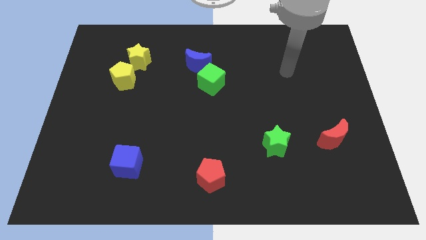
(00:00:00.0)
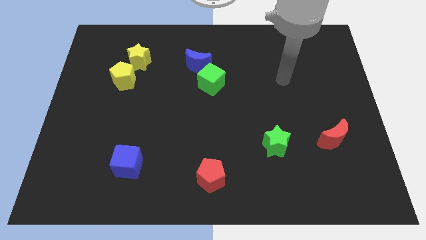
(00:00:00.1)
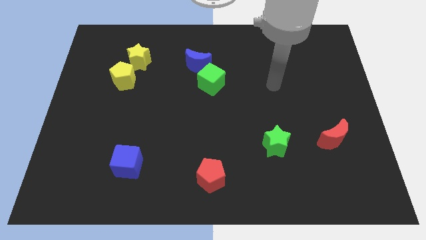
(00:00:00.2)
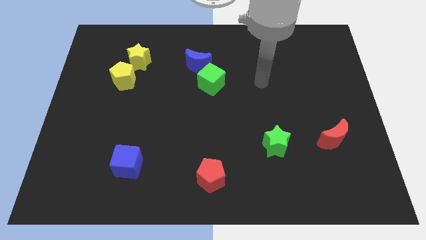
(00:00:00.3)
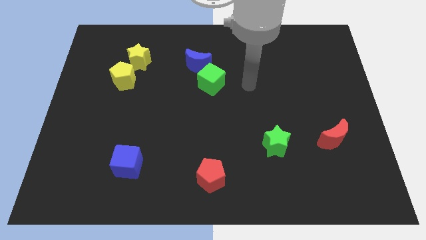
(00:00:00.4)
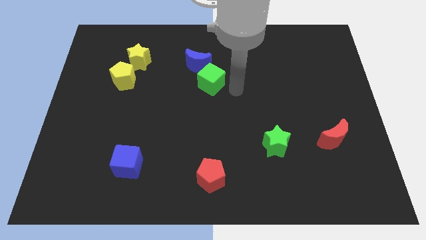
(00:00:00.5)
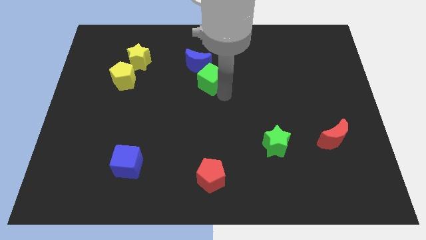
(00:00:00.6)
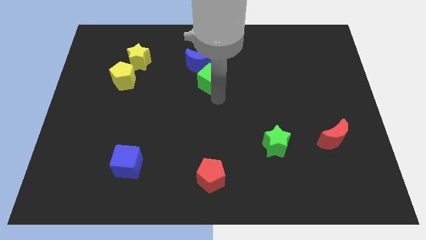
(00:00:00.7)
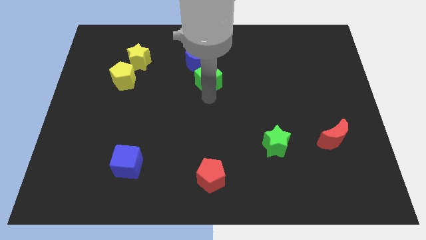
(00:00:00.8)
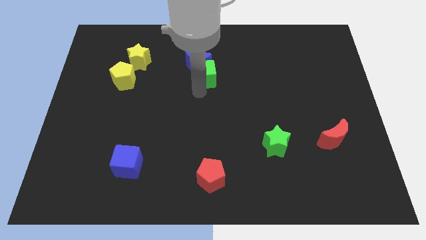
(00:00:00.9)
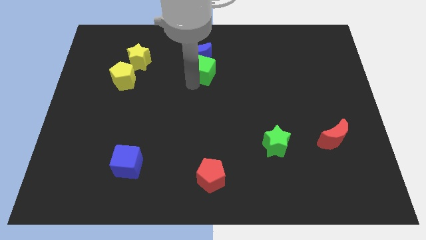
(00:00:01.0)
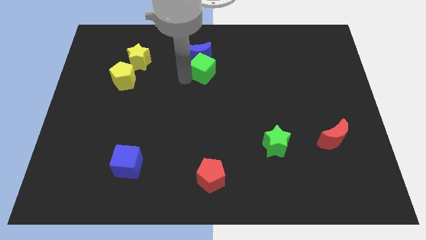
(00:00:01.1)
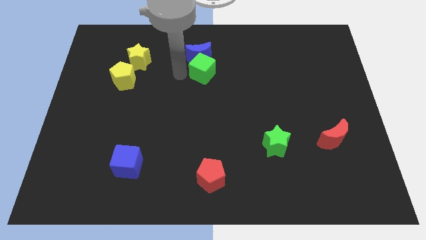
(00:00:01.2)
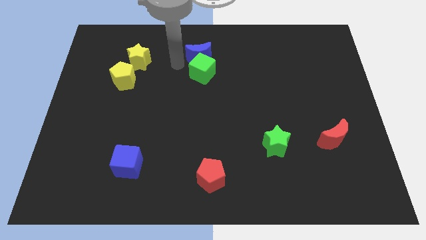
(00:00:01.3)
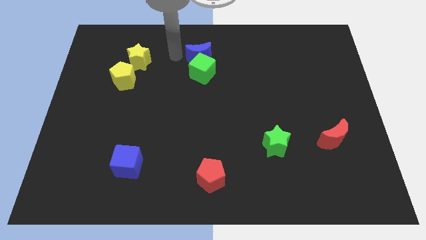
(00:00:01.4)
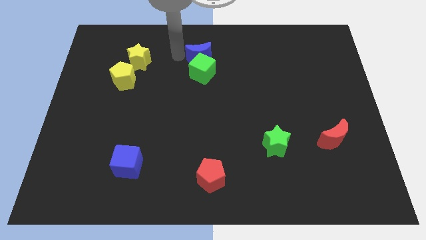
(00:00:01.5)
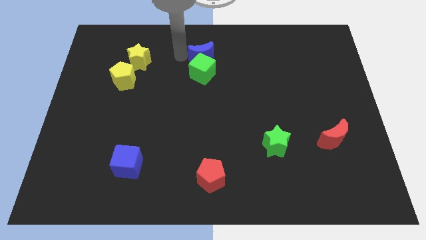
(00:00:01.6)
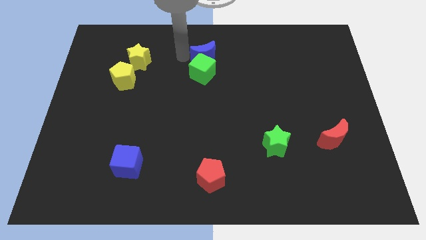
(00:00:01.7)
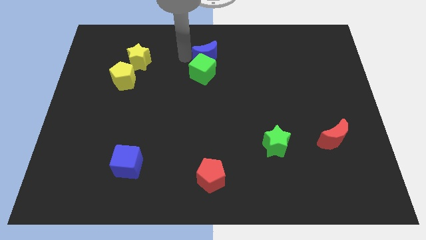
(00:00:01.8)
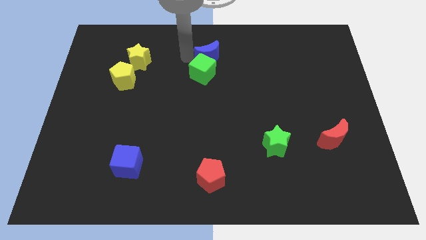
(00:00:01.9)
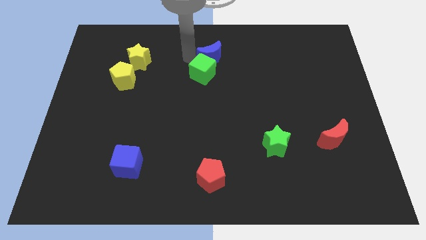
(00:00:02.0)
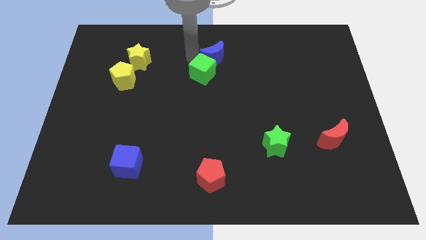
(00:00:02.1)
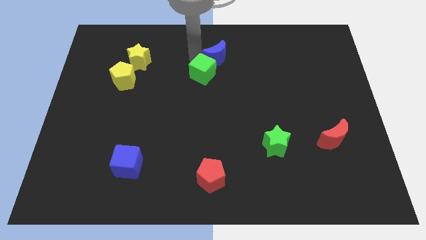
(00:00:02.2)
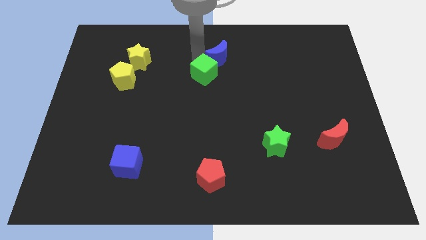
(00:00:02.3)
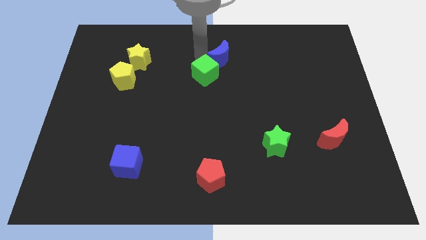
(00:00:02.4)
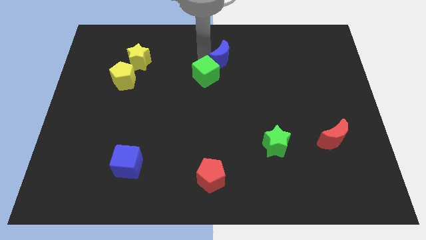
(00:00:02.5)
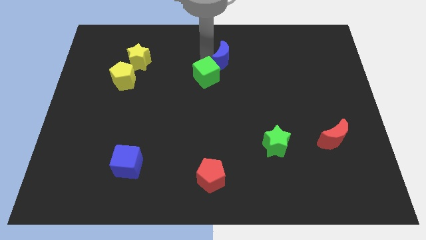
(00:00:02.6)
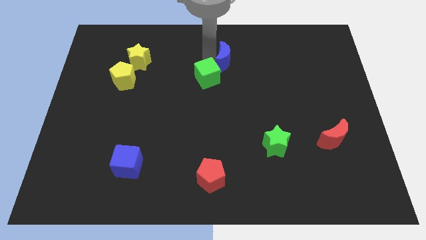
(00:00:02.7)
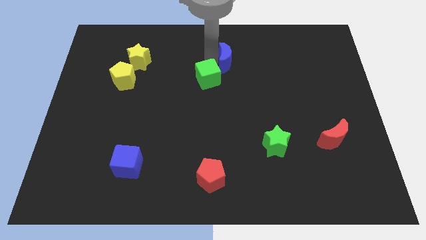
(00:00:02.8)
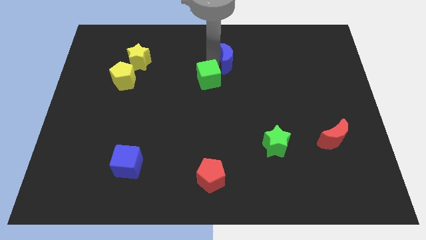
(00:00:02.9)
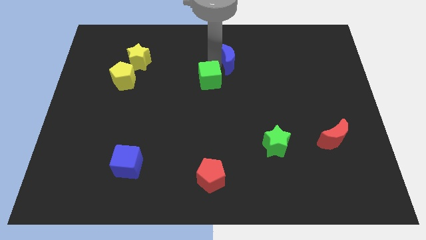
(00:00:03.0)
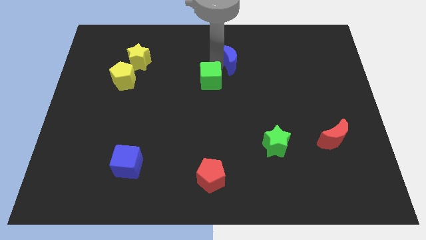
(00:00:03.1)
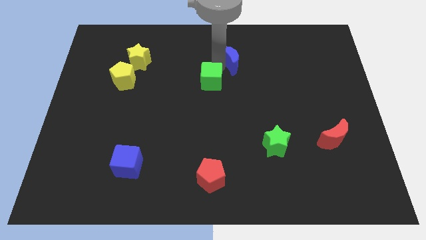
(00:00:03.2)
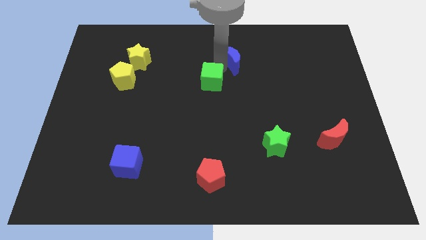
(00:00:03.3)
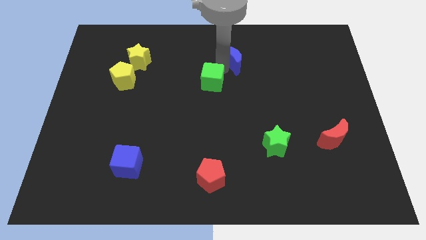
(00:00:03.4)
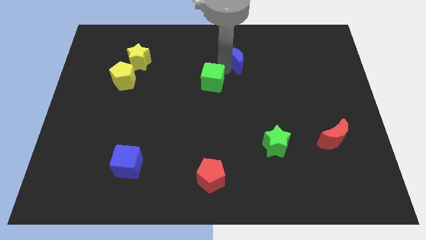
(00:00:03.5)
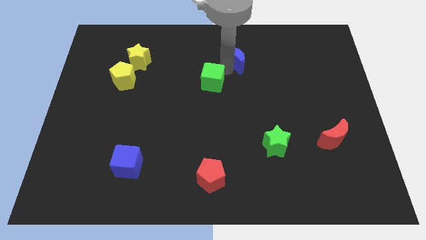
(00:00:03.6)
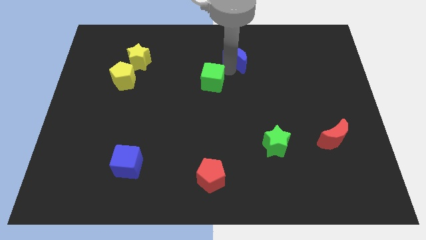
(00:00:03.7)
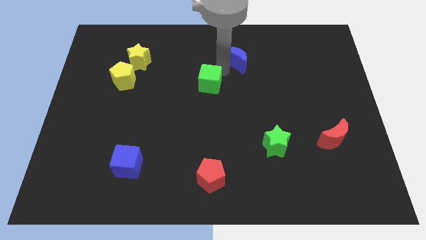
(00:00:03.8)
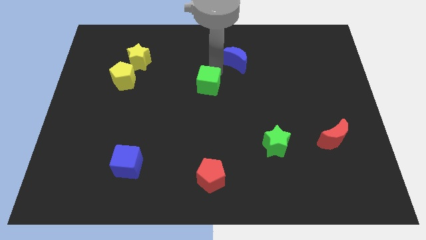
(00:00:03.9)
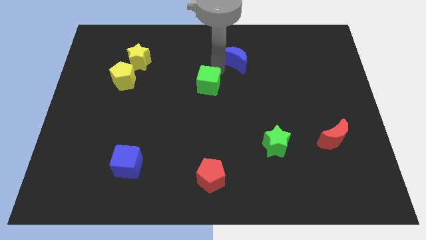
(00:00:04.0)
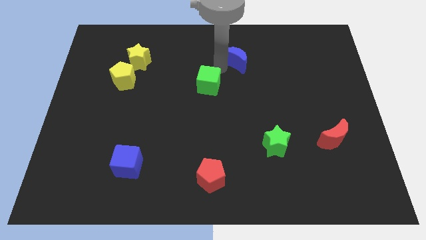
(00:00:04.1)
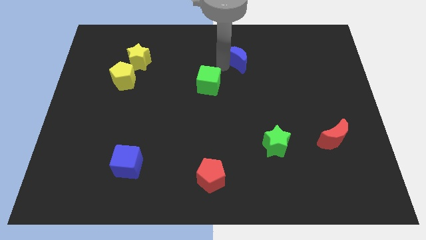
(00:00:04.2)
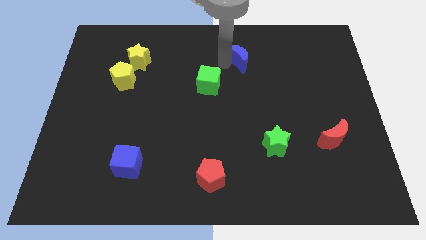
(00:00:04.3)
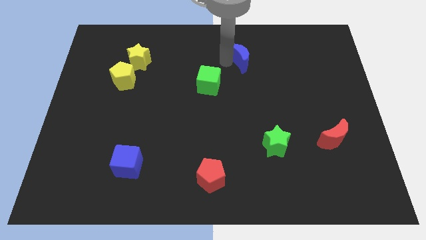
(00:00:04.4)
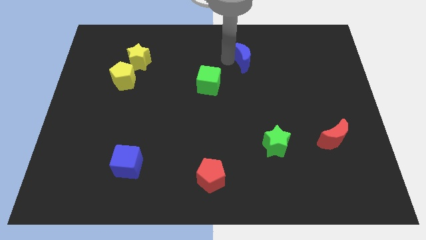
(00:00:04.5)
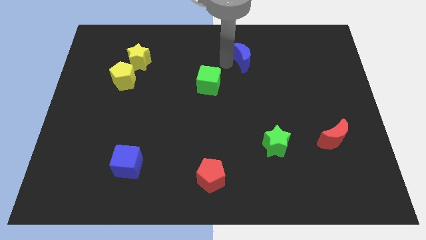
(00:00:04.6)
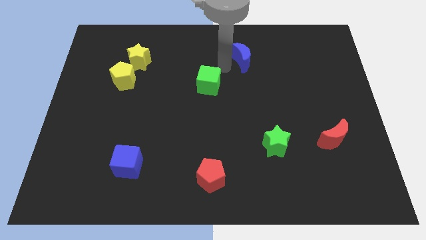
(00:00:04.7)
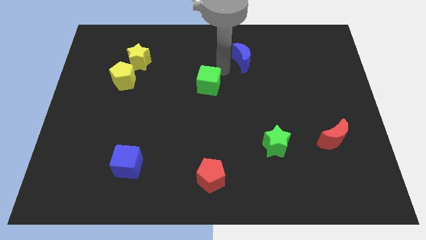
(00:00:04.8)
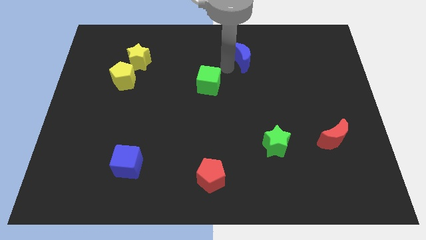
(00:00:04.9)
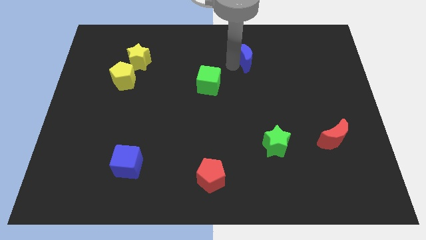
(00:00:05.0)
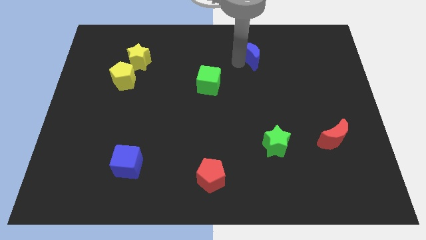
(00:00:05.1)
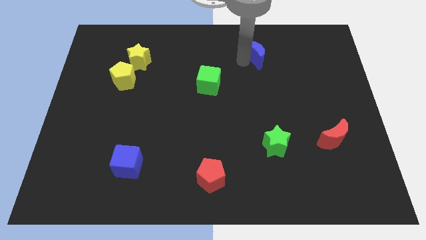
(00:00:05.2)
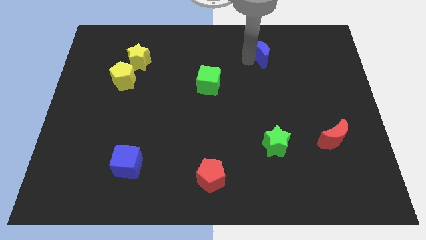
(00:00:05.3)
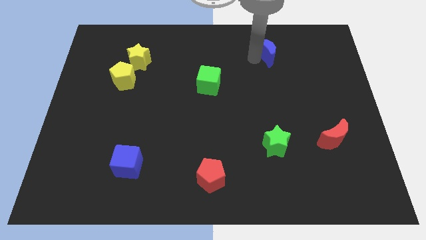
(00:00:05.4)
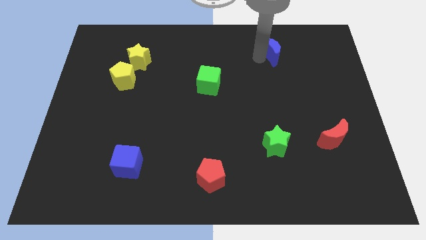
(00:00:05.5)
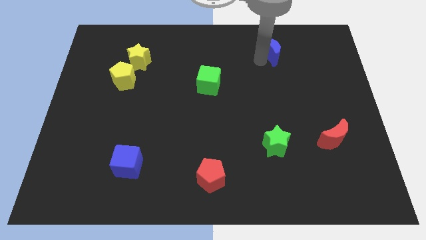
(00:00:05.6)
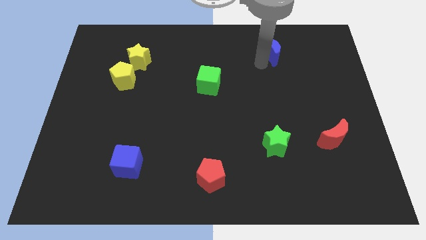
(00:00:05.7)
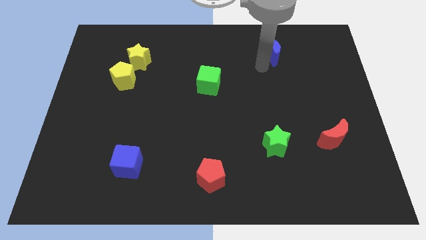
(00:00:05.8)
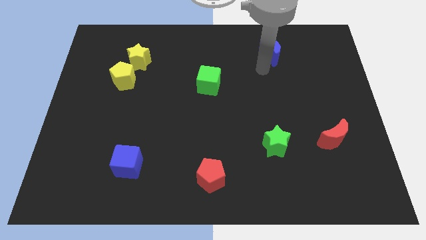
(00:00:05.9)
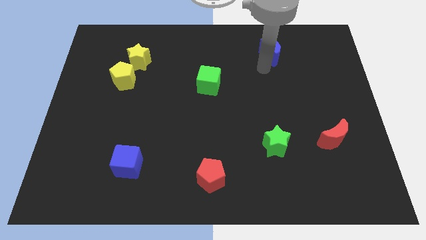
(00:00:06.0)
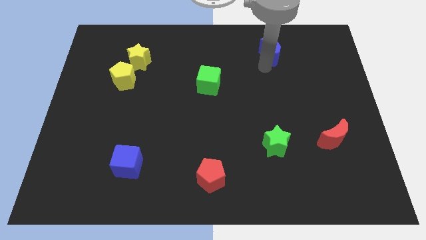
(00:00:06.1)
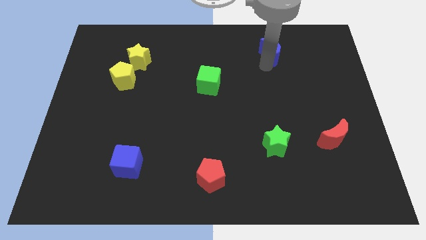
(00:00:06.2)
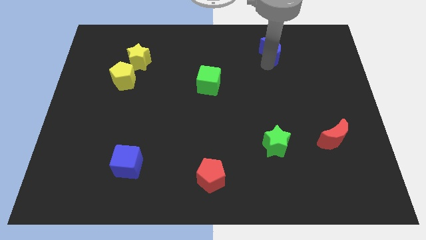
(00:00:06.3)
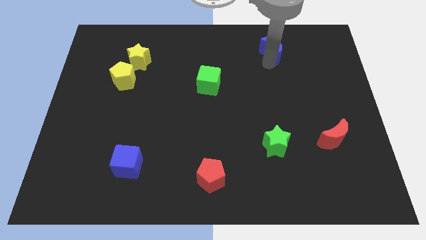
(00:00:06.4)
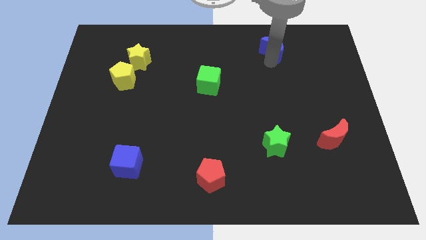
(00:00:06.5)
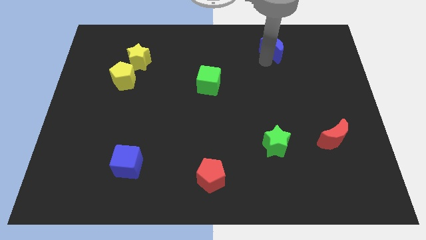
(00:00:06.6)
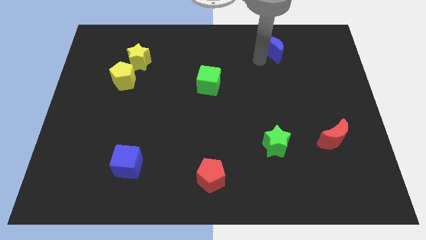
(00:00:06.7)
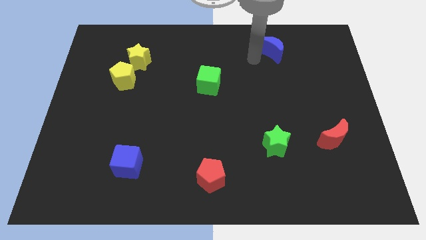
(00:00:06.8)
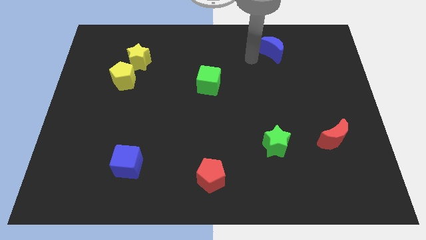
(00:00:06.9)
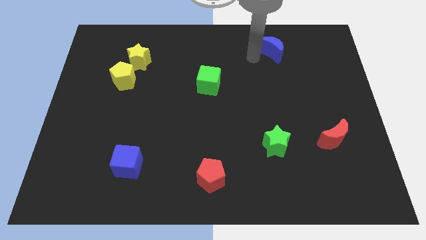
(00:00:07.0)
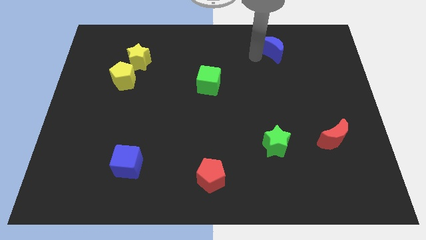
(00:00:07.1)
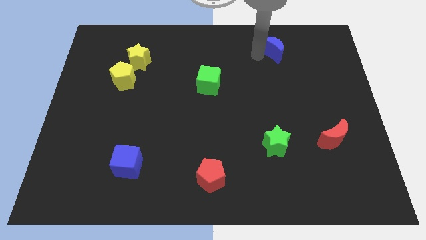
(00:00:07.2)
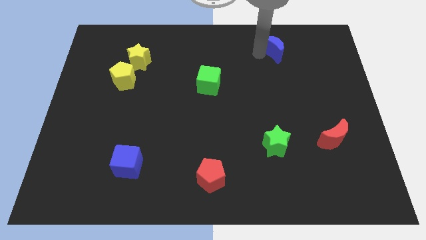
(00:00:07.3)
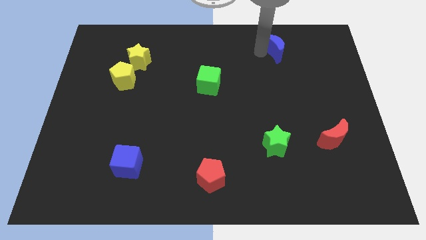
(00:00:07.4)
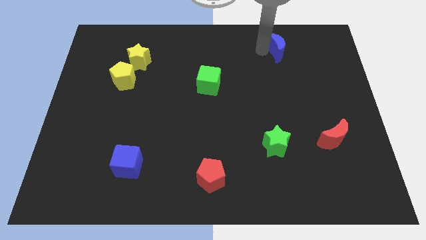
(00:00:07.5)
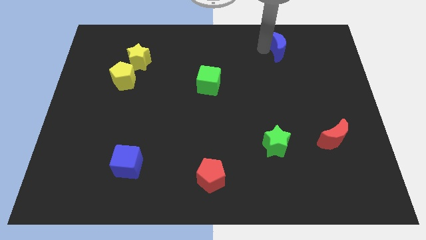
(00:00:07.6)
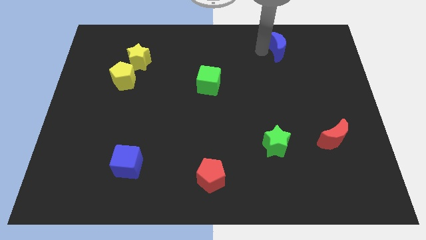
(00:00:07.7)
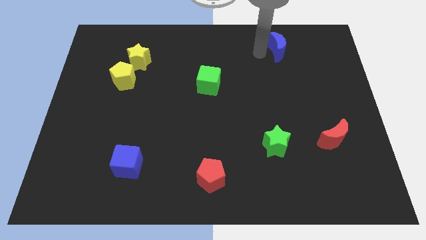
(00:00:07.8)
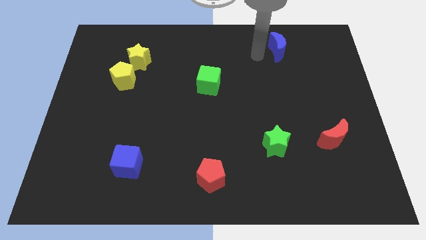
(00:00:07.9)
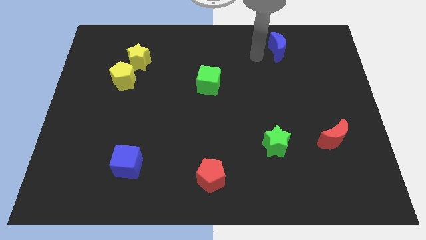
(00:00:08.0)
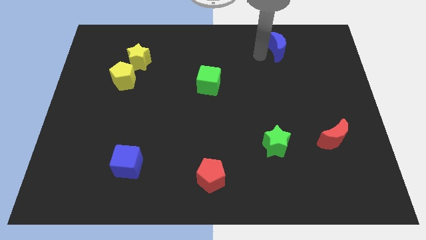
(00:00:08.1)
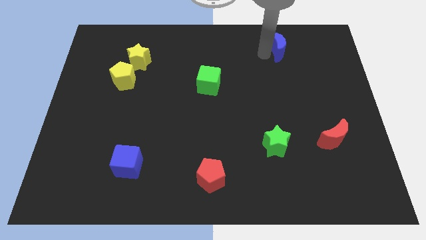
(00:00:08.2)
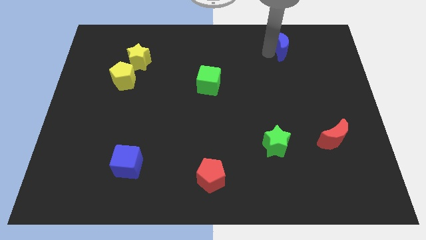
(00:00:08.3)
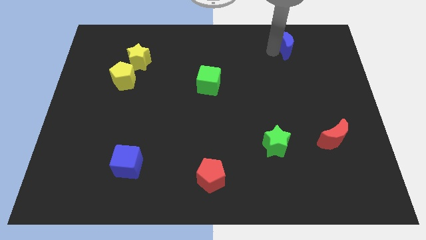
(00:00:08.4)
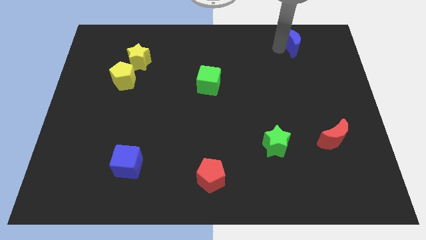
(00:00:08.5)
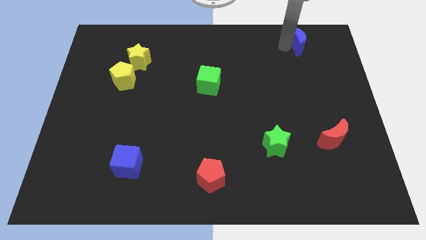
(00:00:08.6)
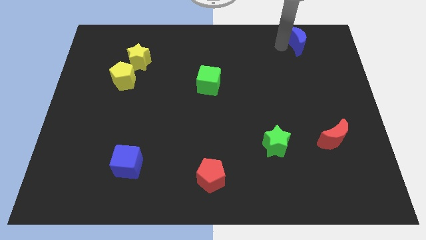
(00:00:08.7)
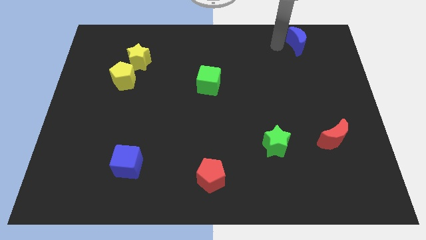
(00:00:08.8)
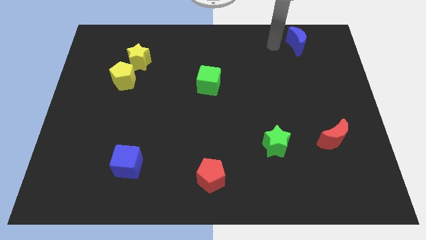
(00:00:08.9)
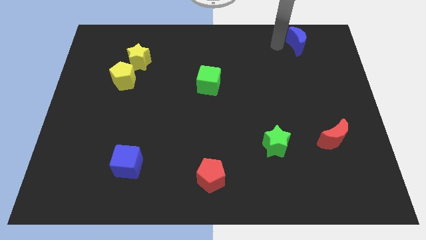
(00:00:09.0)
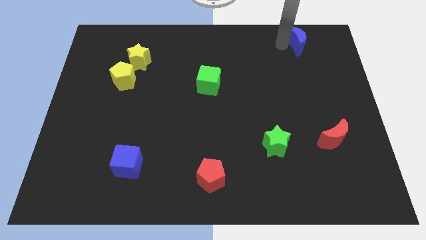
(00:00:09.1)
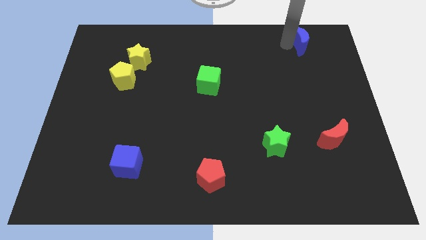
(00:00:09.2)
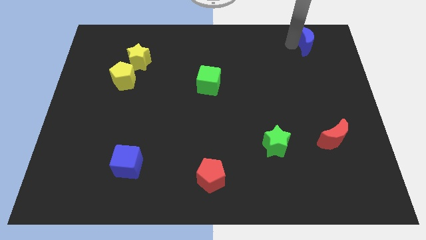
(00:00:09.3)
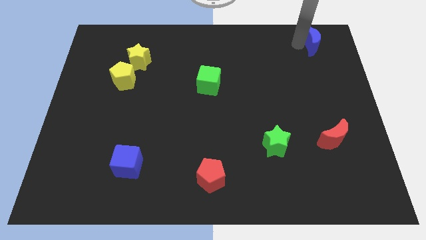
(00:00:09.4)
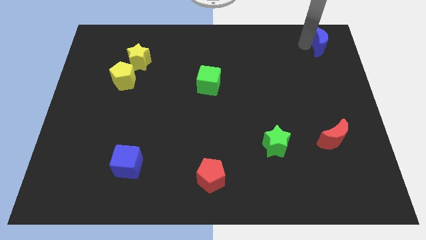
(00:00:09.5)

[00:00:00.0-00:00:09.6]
slide the blue moon to the upper right corner
